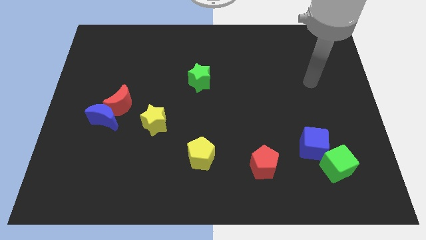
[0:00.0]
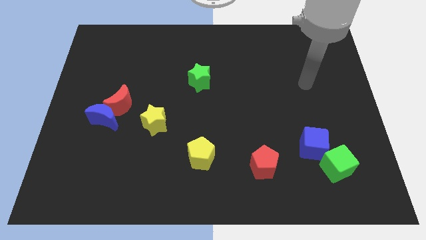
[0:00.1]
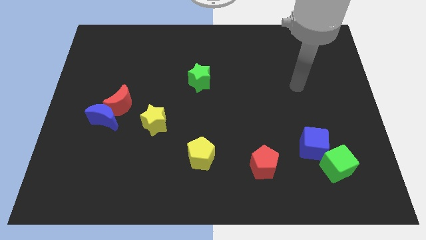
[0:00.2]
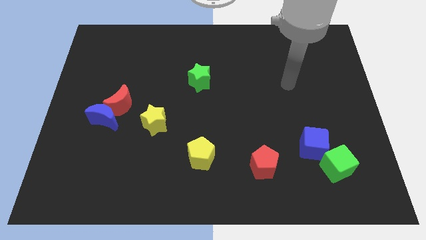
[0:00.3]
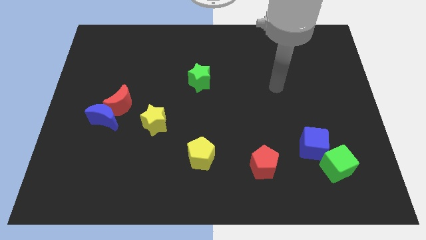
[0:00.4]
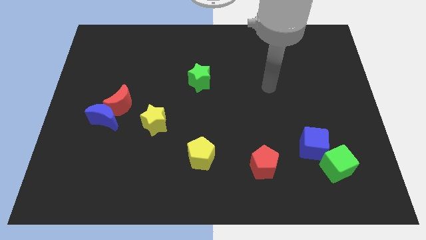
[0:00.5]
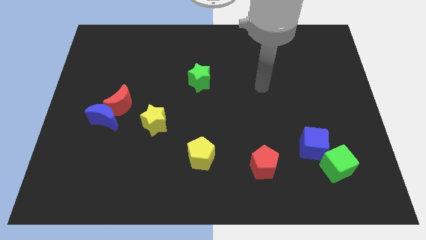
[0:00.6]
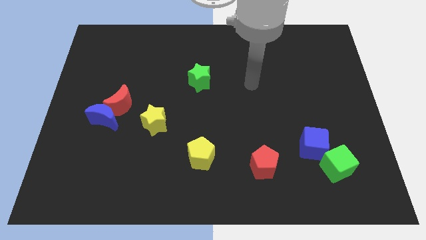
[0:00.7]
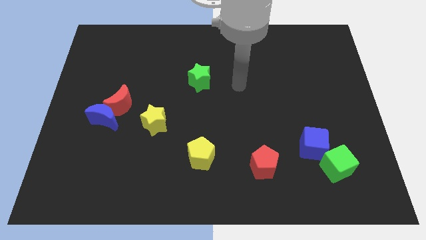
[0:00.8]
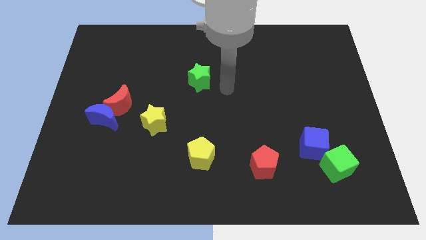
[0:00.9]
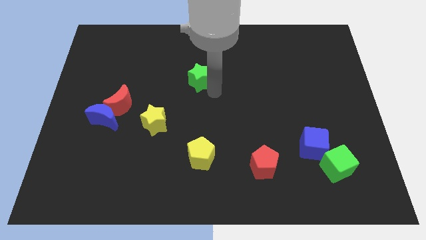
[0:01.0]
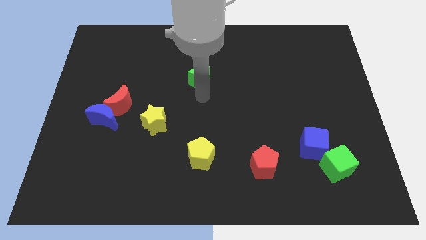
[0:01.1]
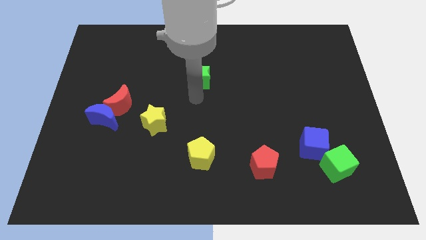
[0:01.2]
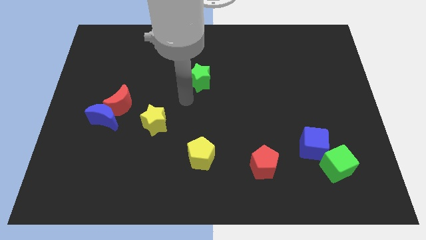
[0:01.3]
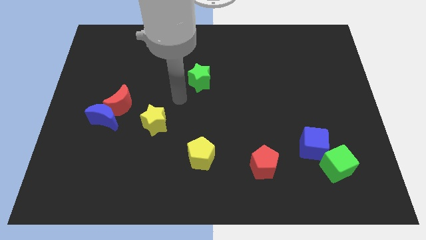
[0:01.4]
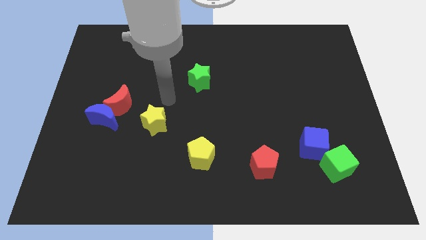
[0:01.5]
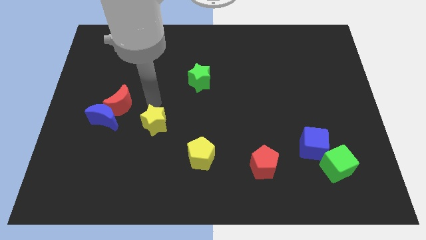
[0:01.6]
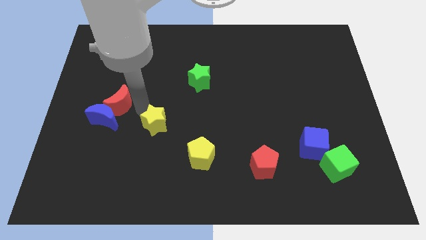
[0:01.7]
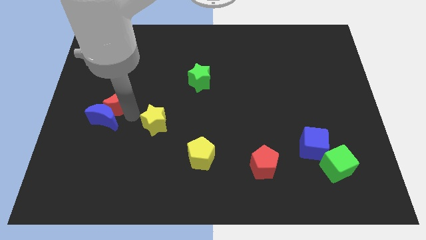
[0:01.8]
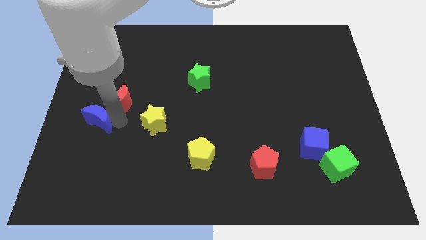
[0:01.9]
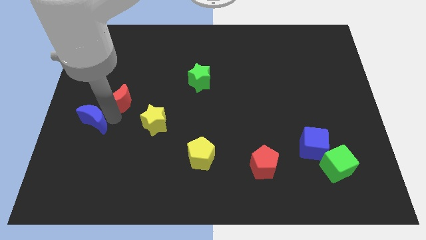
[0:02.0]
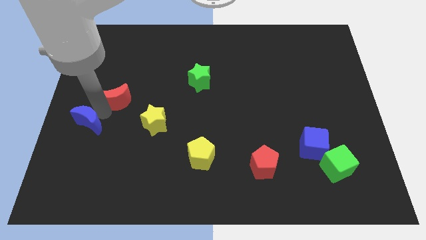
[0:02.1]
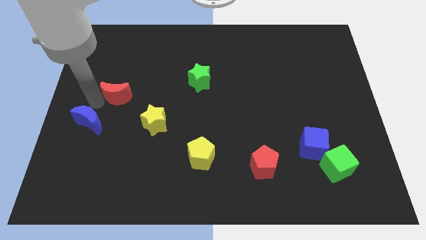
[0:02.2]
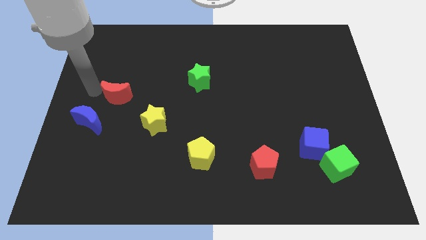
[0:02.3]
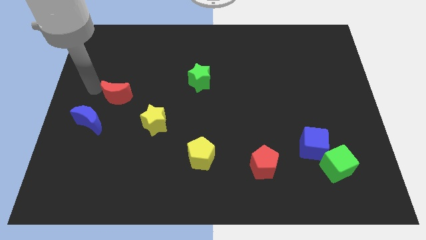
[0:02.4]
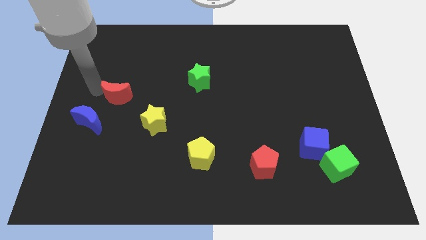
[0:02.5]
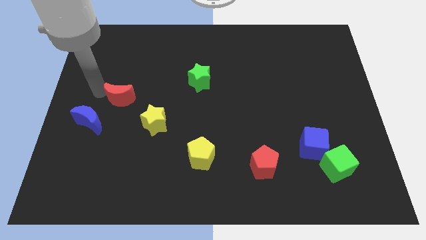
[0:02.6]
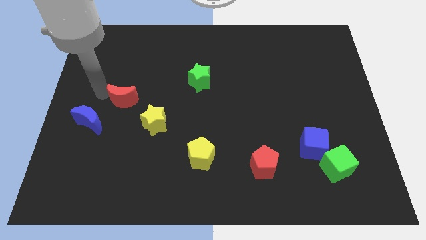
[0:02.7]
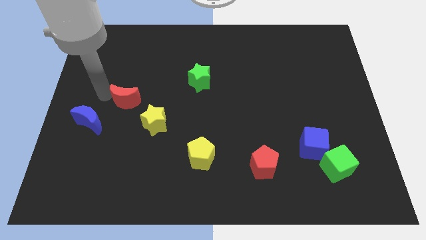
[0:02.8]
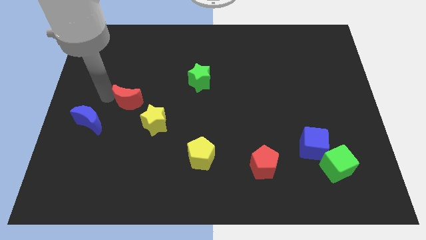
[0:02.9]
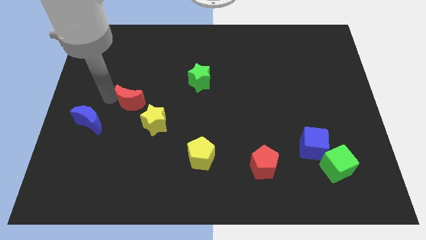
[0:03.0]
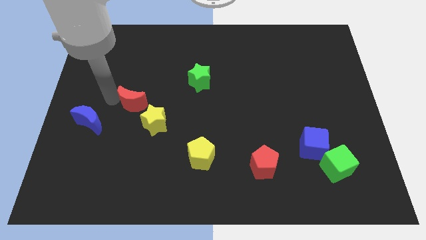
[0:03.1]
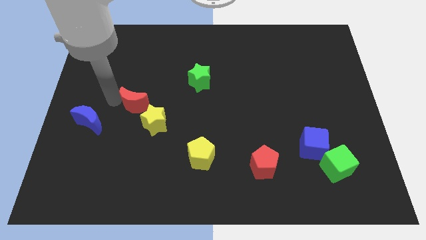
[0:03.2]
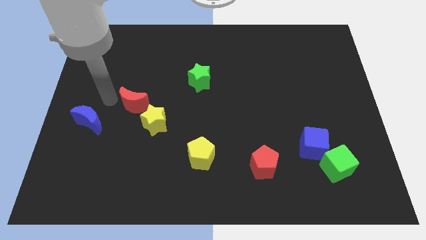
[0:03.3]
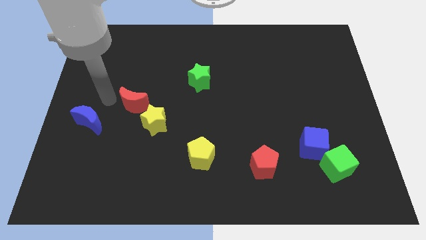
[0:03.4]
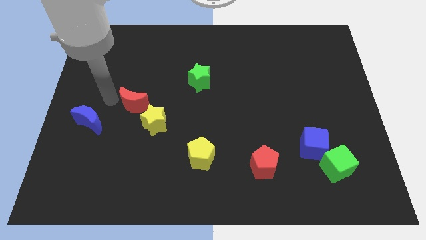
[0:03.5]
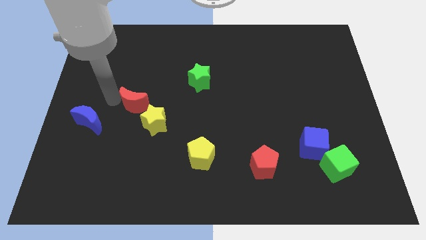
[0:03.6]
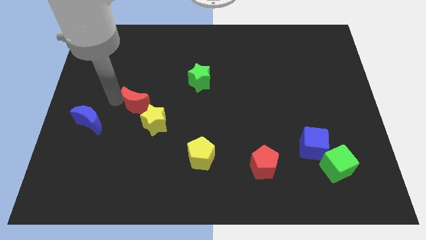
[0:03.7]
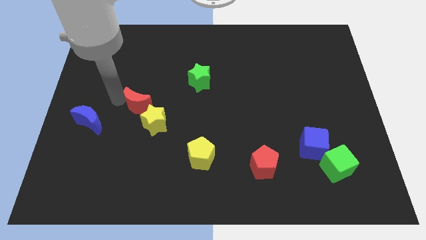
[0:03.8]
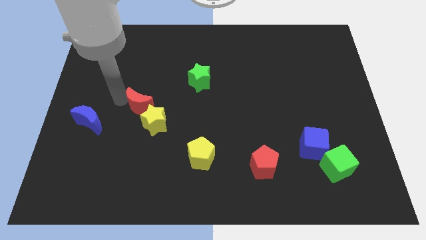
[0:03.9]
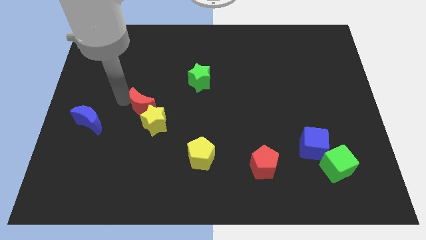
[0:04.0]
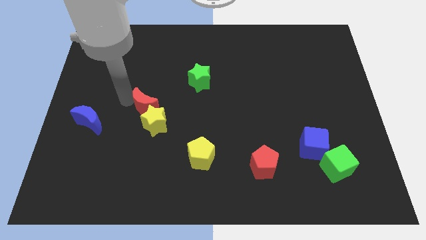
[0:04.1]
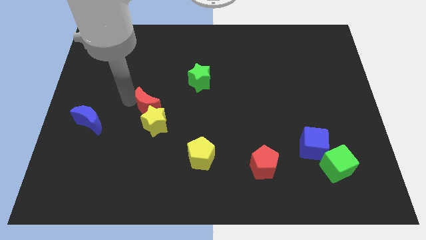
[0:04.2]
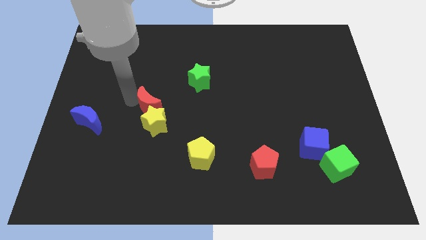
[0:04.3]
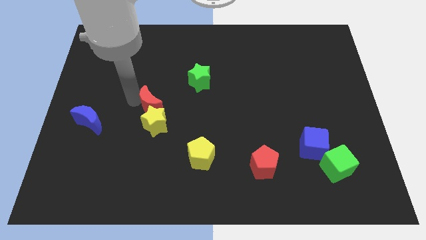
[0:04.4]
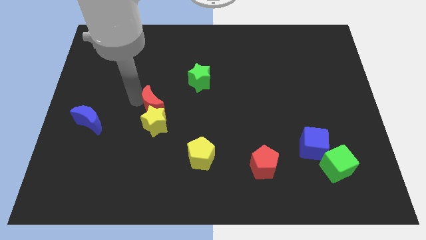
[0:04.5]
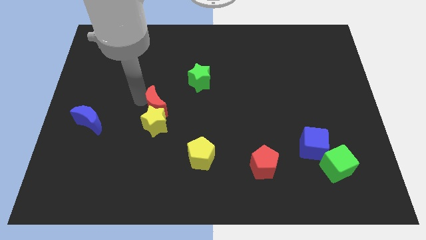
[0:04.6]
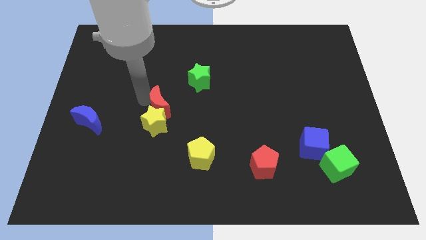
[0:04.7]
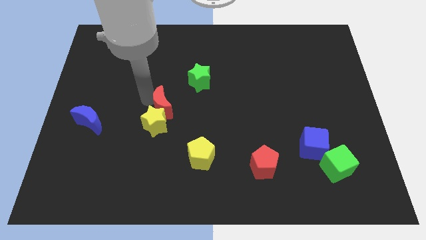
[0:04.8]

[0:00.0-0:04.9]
push the red moon to the center

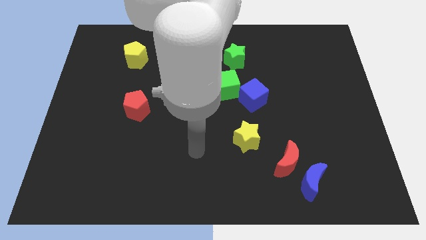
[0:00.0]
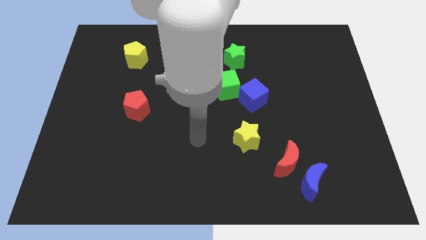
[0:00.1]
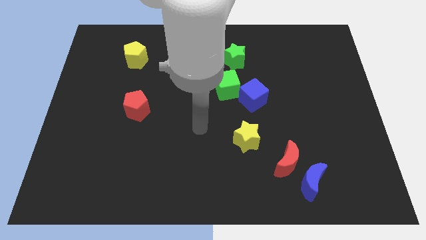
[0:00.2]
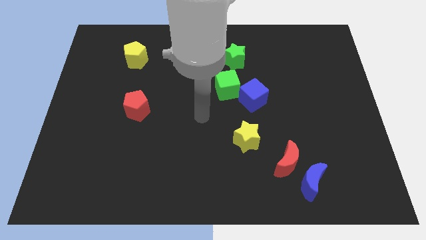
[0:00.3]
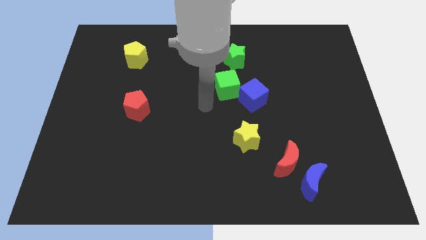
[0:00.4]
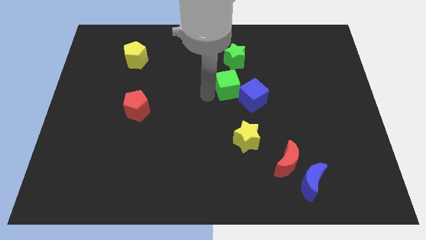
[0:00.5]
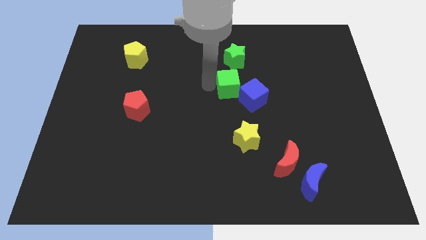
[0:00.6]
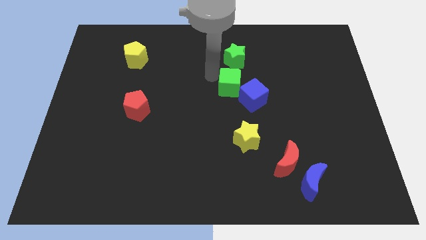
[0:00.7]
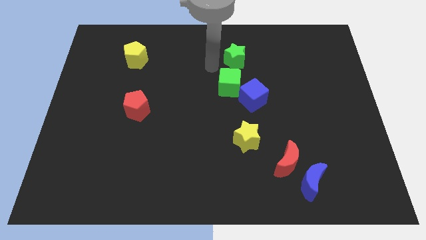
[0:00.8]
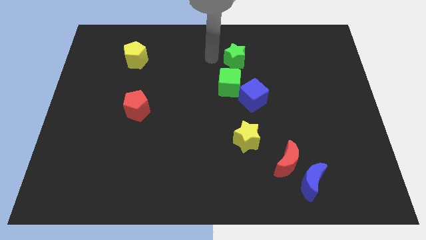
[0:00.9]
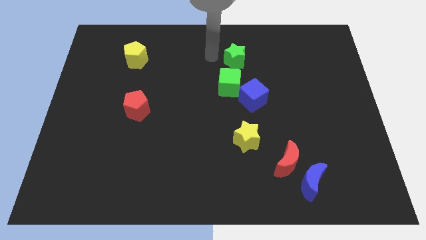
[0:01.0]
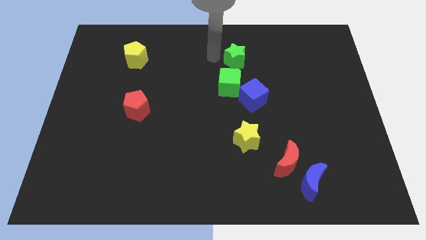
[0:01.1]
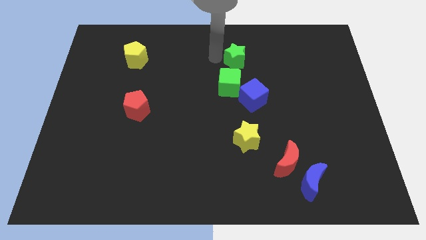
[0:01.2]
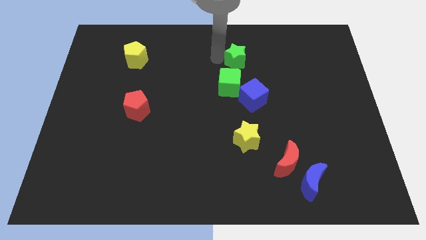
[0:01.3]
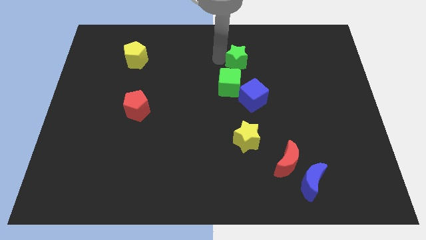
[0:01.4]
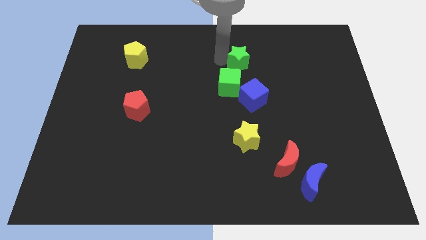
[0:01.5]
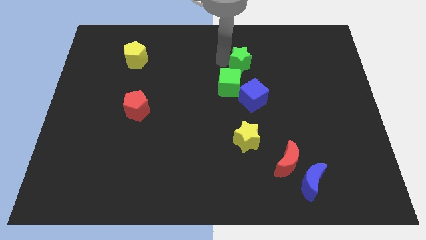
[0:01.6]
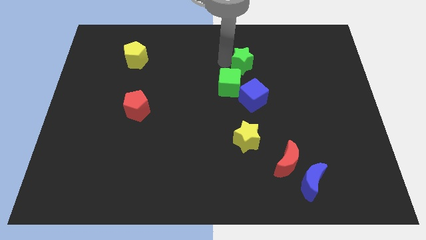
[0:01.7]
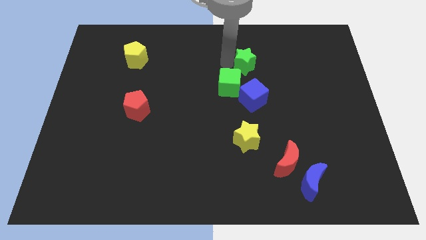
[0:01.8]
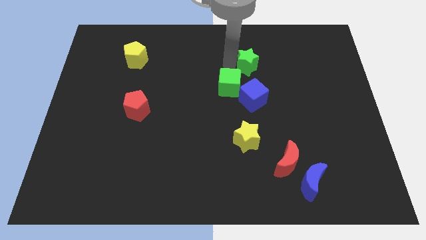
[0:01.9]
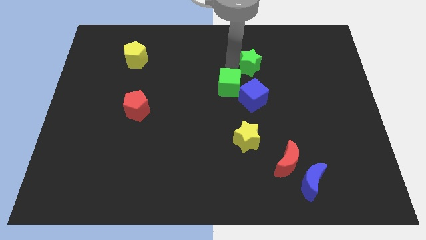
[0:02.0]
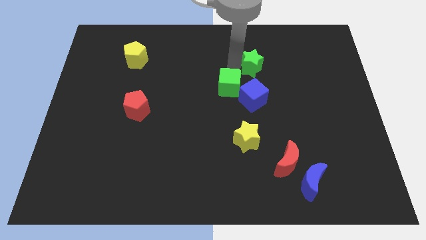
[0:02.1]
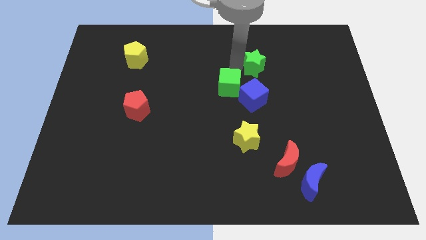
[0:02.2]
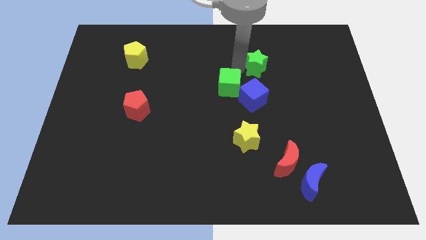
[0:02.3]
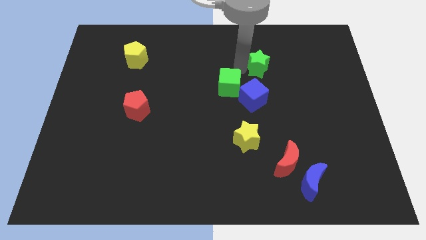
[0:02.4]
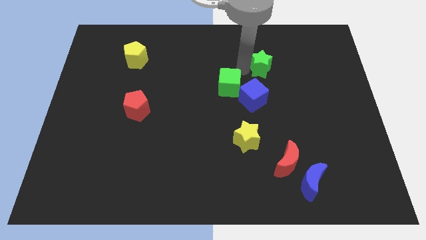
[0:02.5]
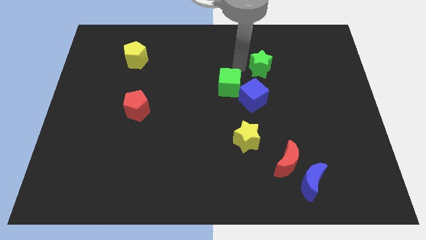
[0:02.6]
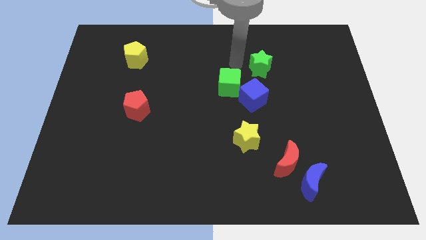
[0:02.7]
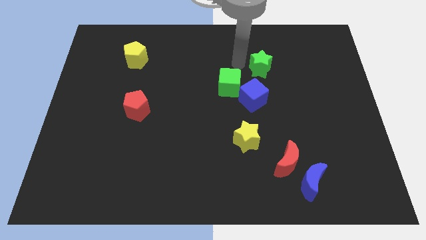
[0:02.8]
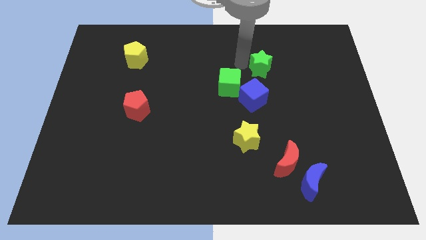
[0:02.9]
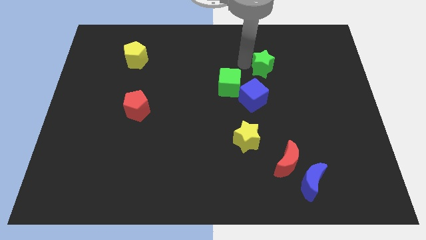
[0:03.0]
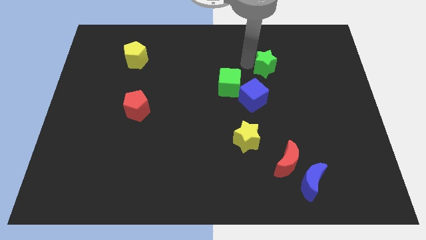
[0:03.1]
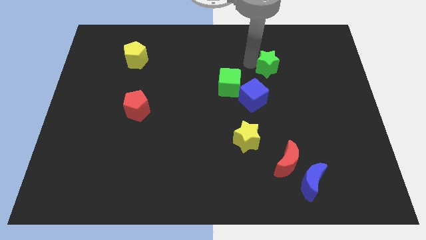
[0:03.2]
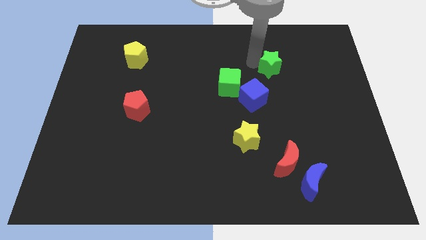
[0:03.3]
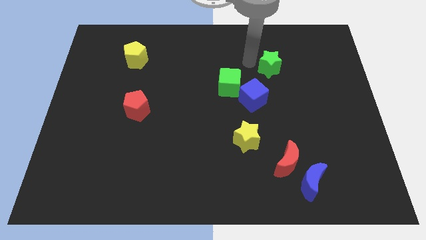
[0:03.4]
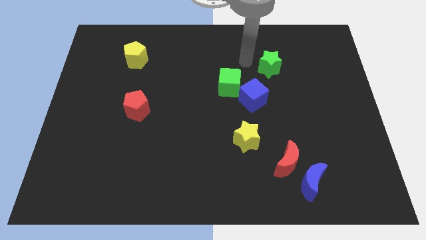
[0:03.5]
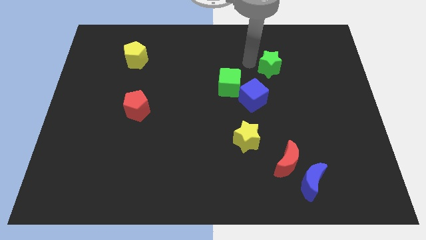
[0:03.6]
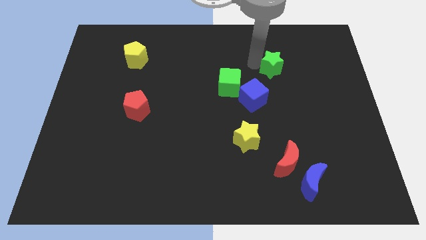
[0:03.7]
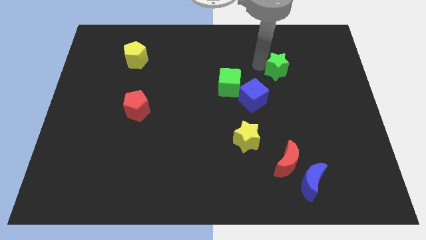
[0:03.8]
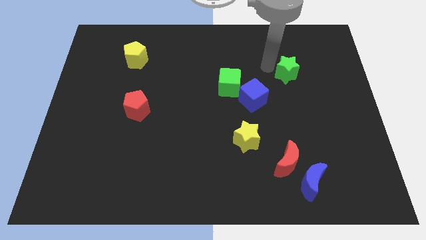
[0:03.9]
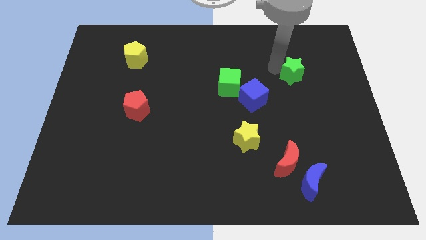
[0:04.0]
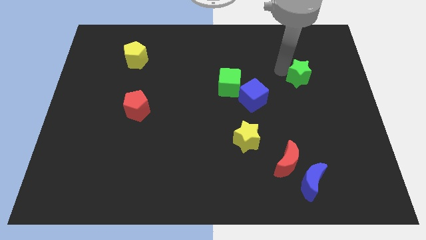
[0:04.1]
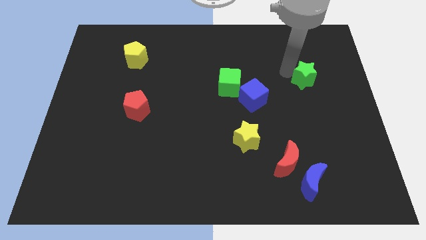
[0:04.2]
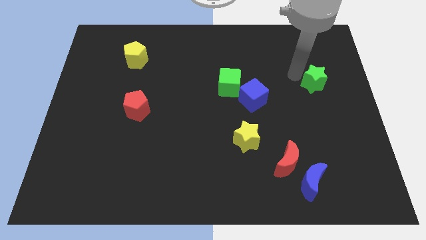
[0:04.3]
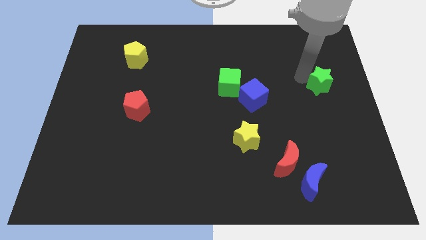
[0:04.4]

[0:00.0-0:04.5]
move the green star to the right side of the board
